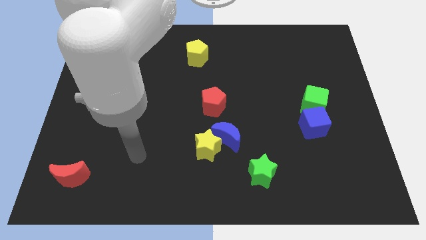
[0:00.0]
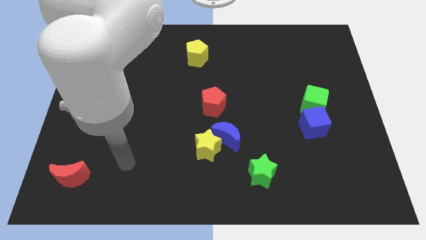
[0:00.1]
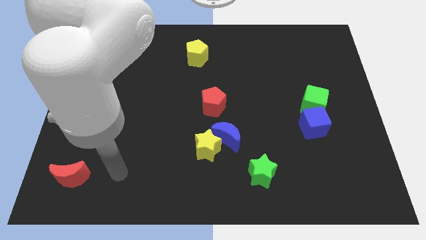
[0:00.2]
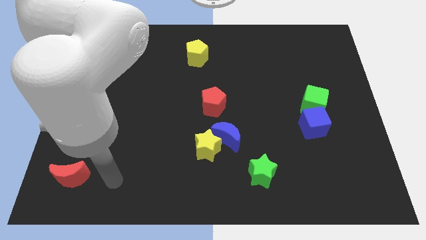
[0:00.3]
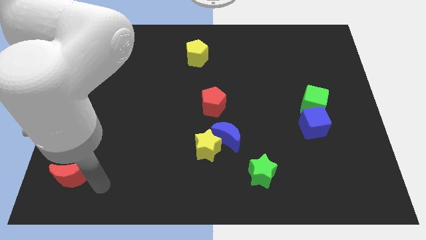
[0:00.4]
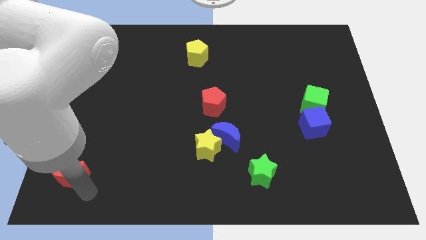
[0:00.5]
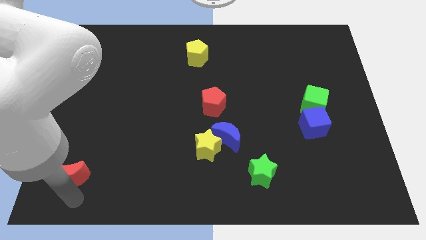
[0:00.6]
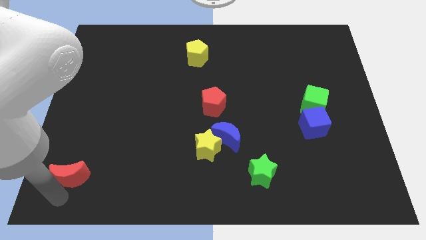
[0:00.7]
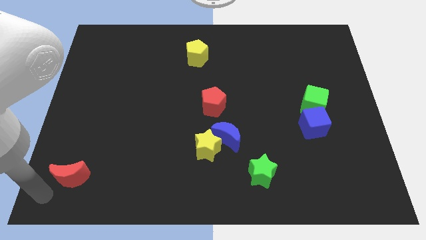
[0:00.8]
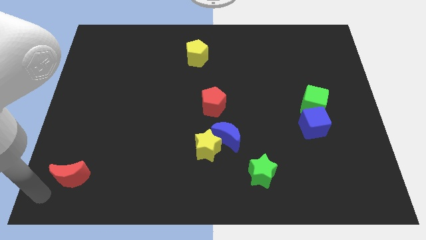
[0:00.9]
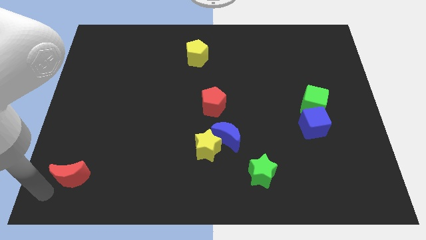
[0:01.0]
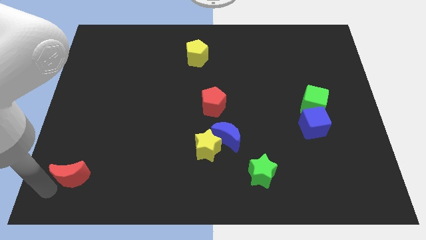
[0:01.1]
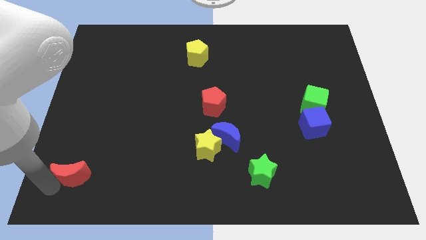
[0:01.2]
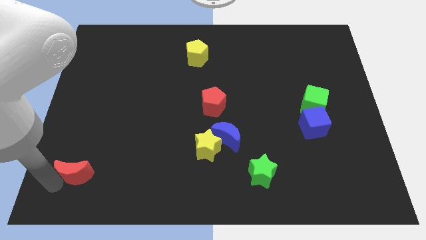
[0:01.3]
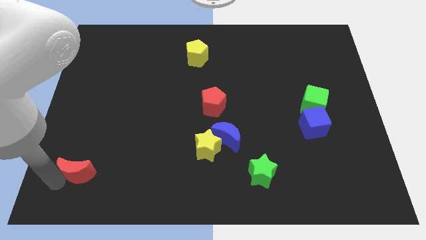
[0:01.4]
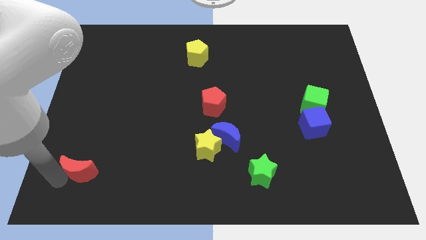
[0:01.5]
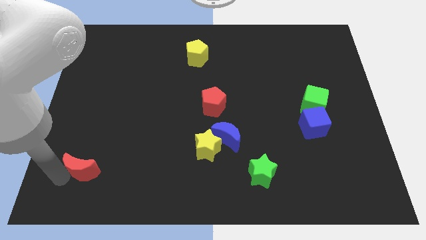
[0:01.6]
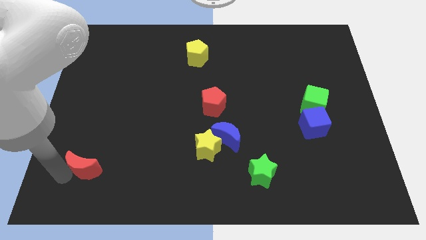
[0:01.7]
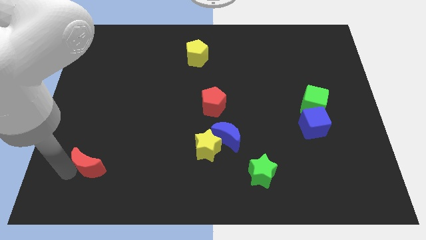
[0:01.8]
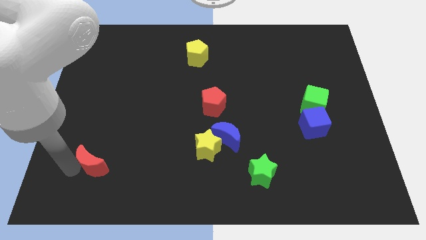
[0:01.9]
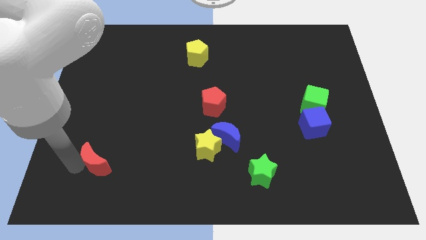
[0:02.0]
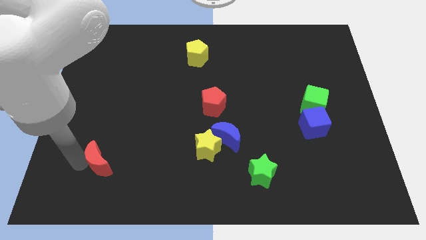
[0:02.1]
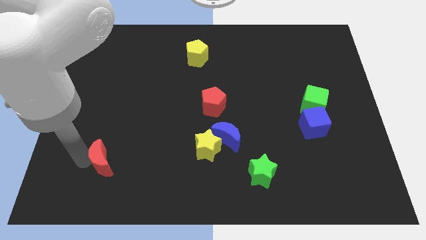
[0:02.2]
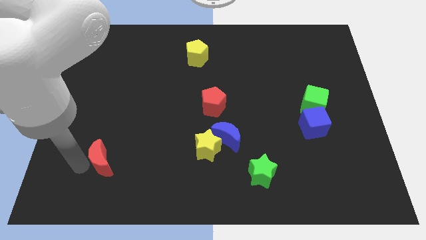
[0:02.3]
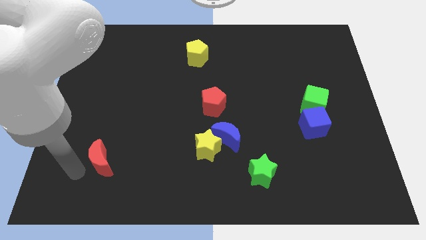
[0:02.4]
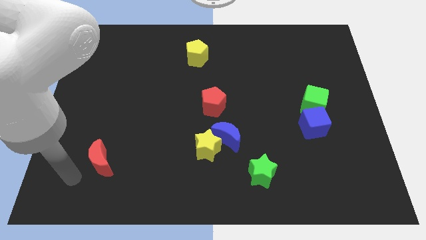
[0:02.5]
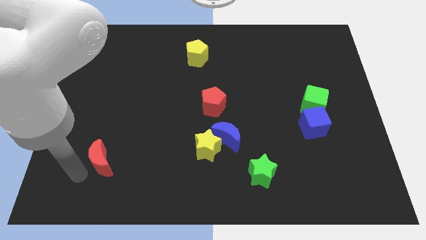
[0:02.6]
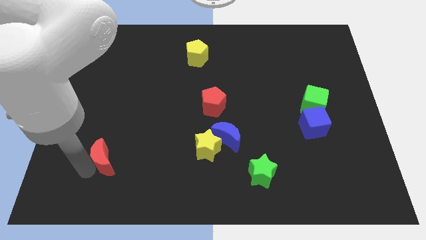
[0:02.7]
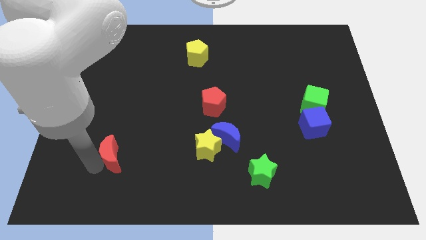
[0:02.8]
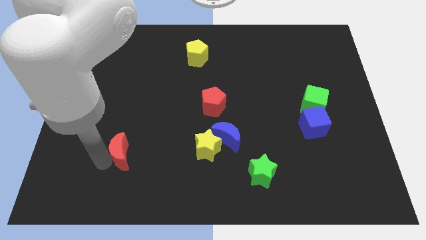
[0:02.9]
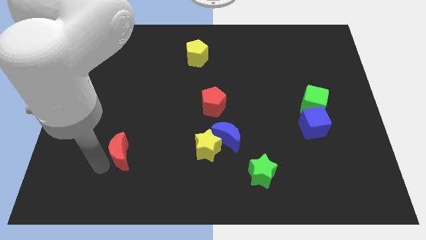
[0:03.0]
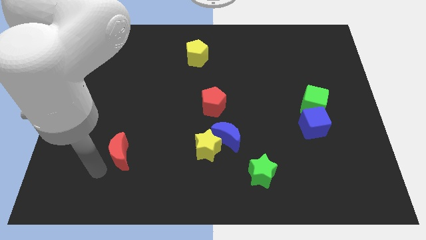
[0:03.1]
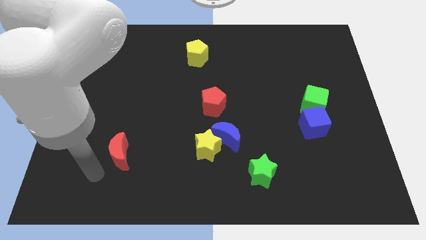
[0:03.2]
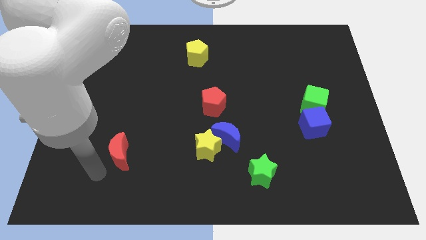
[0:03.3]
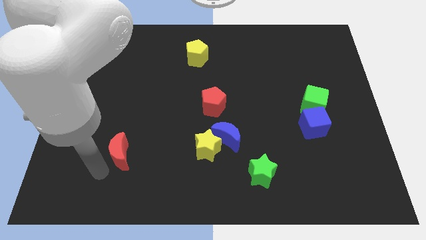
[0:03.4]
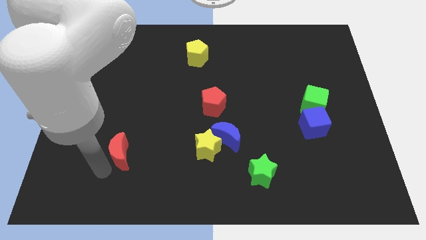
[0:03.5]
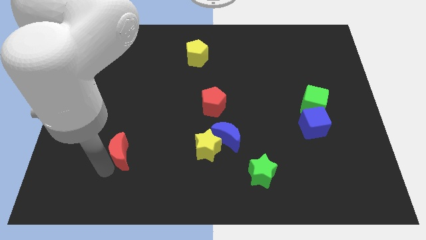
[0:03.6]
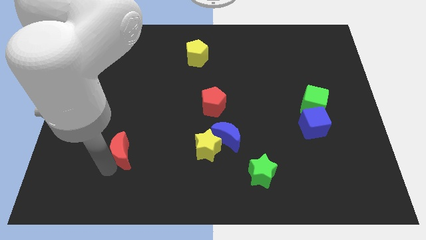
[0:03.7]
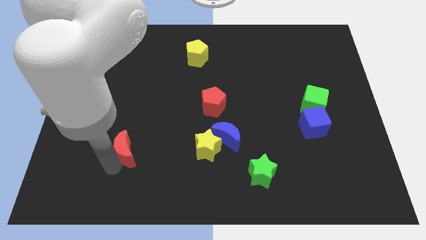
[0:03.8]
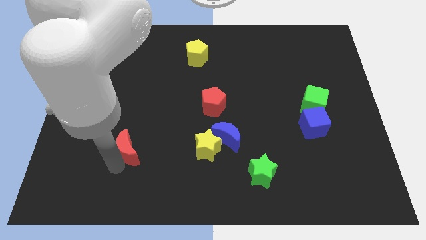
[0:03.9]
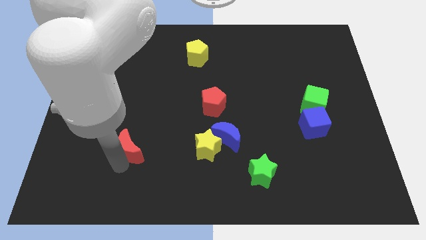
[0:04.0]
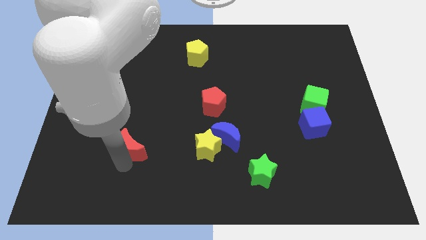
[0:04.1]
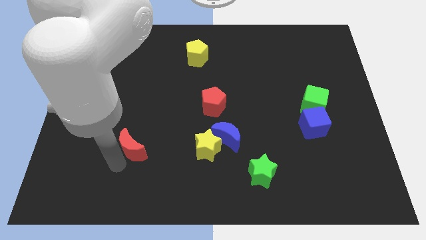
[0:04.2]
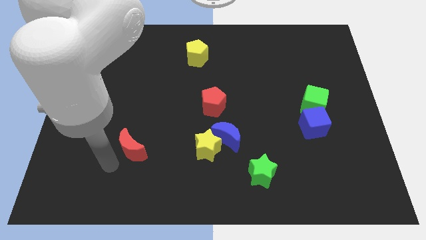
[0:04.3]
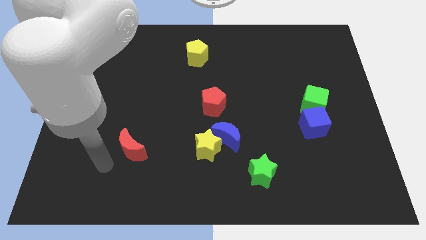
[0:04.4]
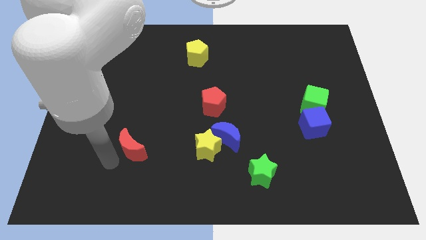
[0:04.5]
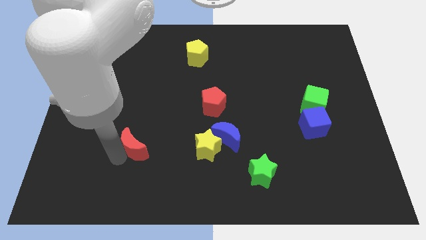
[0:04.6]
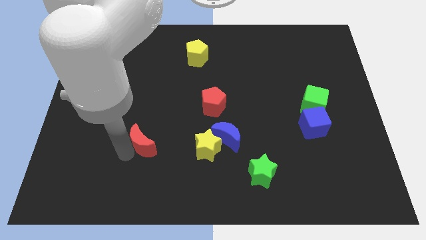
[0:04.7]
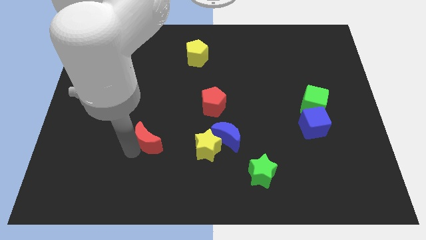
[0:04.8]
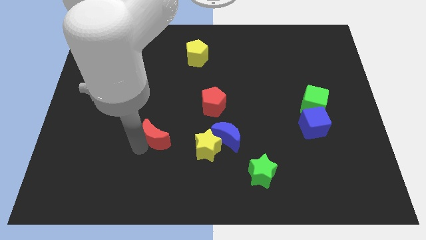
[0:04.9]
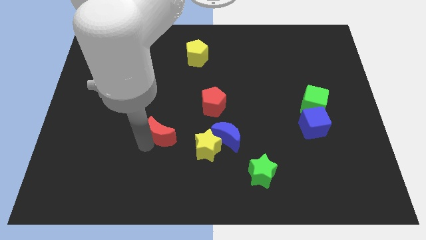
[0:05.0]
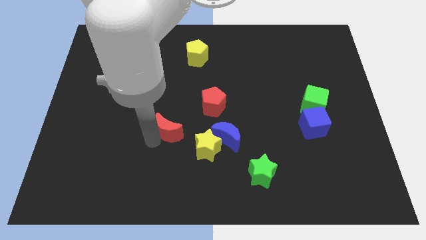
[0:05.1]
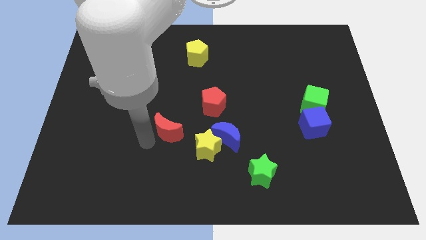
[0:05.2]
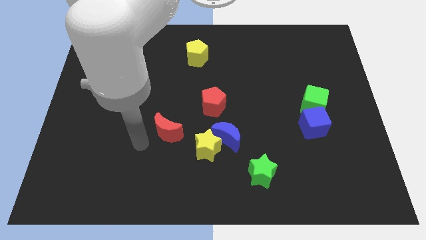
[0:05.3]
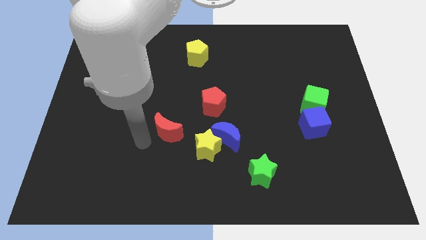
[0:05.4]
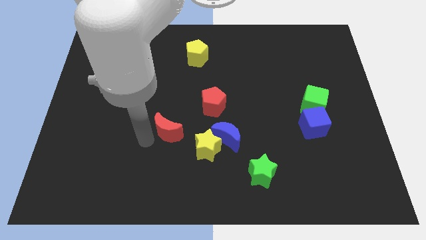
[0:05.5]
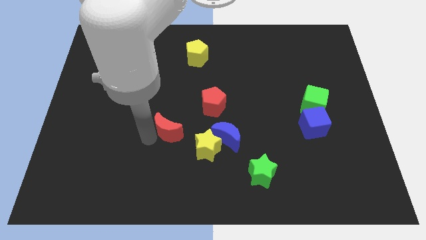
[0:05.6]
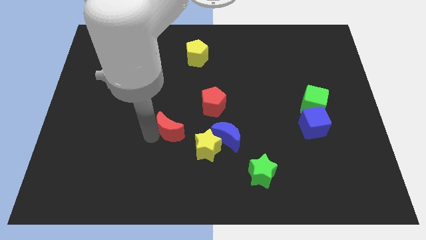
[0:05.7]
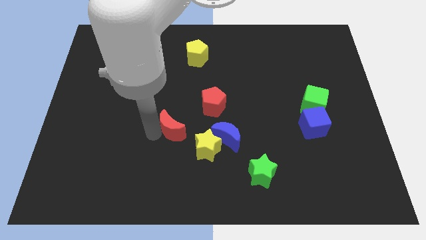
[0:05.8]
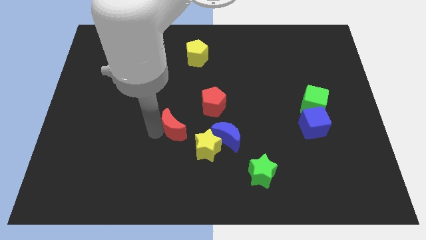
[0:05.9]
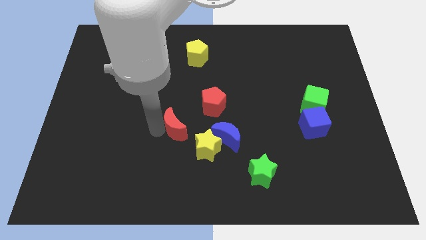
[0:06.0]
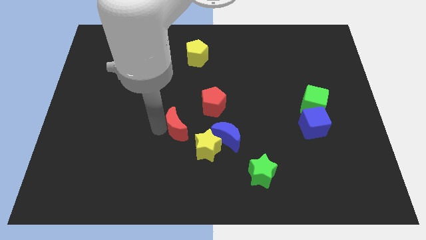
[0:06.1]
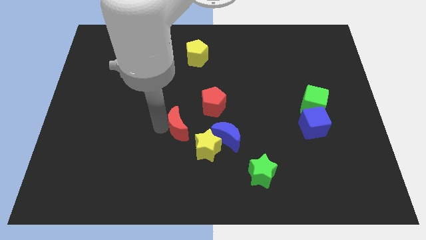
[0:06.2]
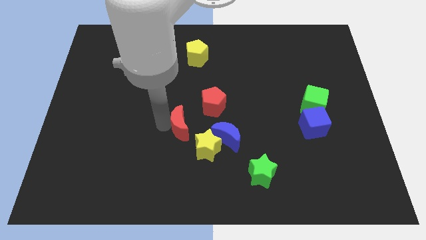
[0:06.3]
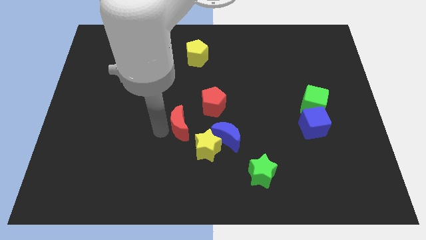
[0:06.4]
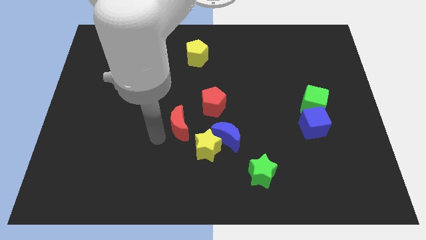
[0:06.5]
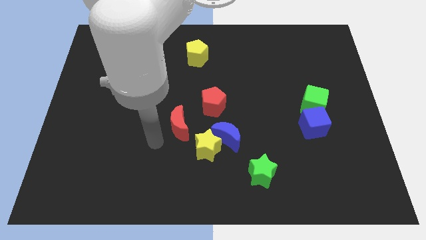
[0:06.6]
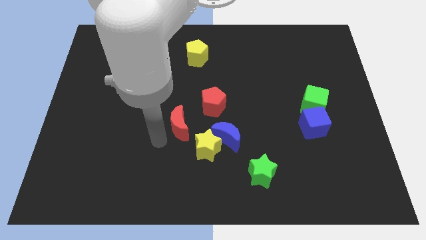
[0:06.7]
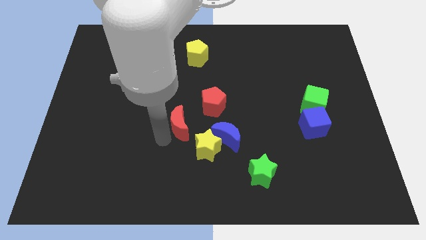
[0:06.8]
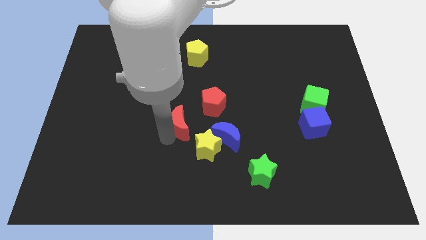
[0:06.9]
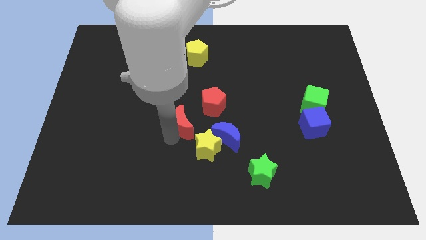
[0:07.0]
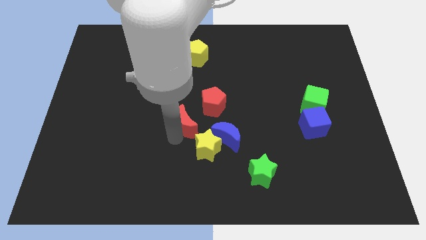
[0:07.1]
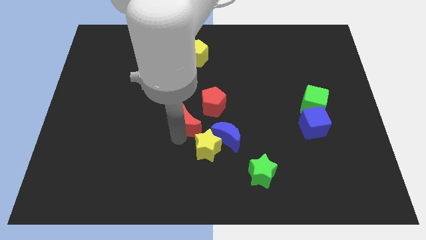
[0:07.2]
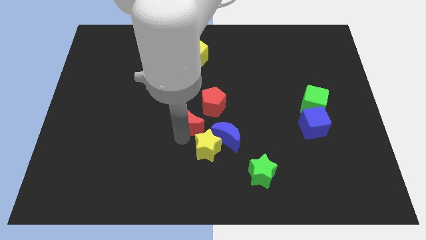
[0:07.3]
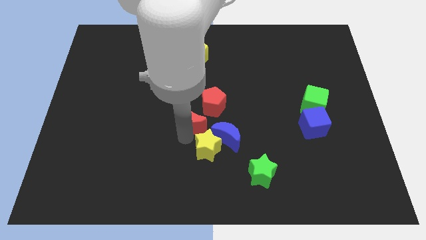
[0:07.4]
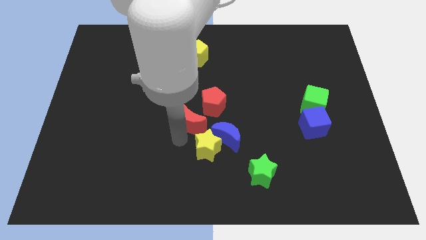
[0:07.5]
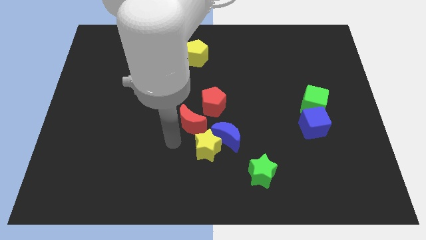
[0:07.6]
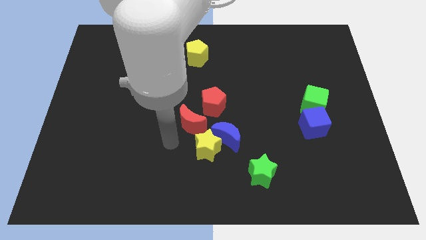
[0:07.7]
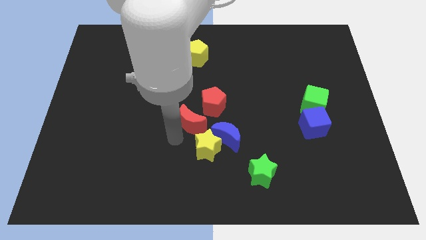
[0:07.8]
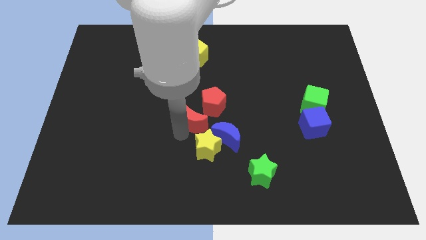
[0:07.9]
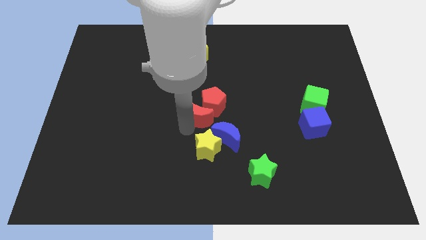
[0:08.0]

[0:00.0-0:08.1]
push the red moon next to the red pentagon
